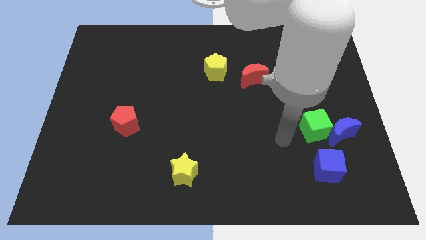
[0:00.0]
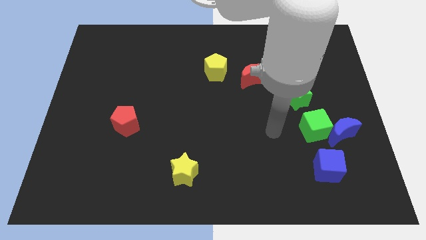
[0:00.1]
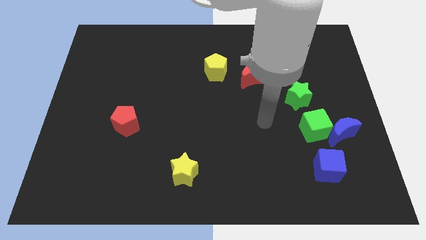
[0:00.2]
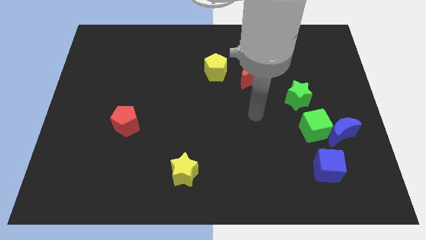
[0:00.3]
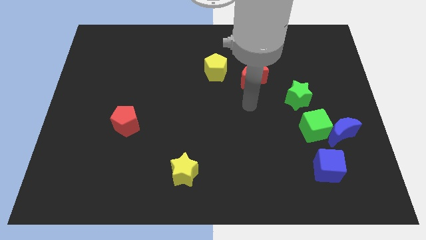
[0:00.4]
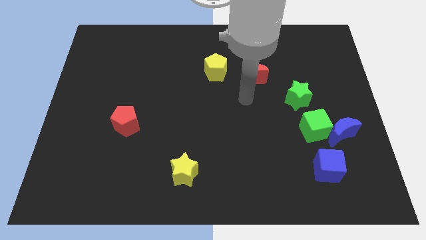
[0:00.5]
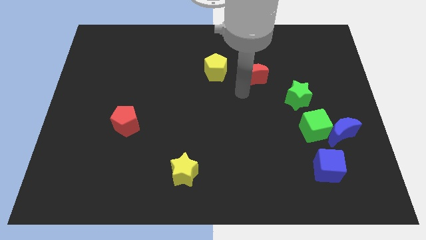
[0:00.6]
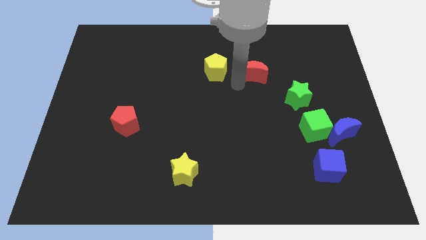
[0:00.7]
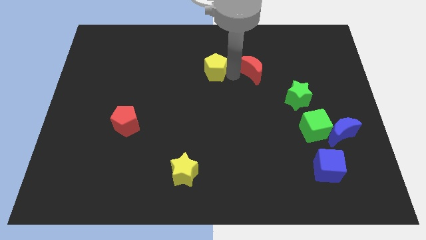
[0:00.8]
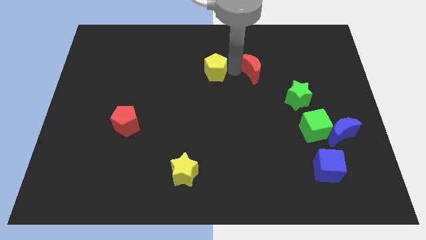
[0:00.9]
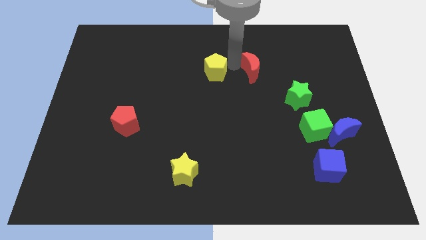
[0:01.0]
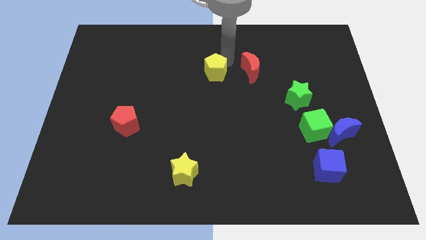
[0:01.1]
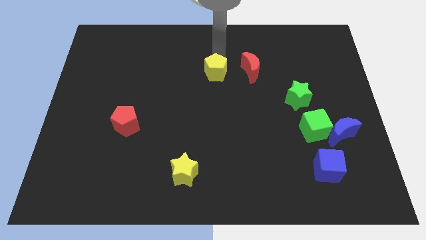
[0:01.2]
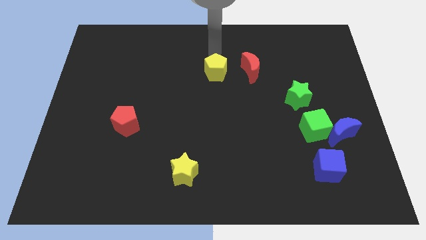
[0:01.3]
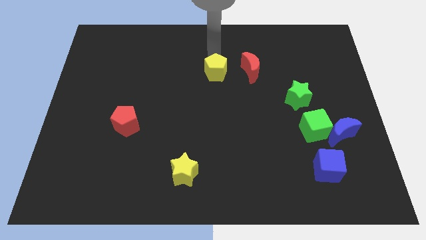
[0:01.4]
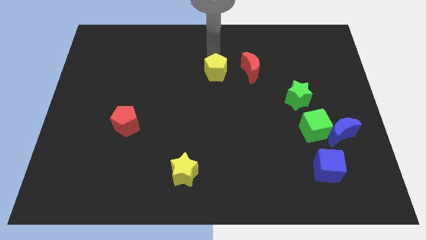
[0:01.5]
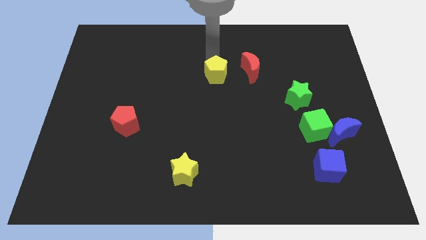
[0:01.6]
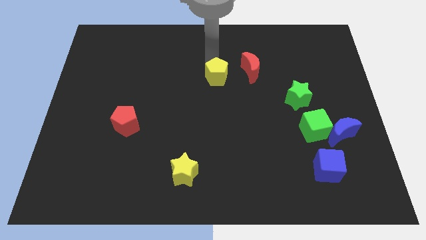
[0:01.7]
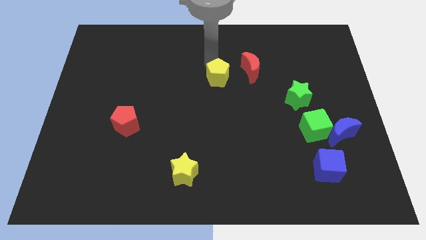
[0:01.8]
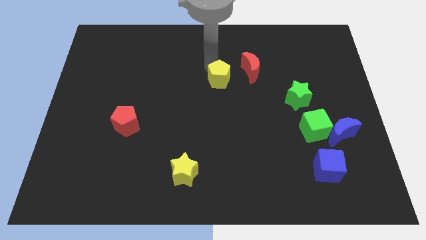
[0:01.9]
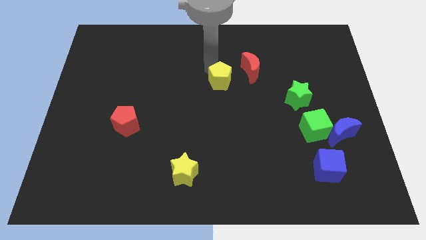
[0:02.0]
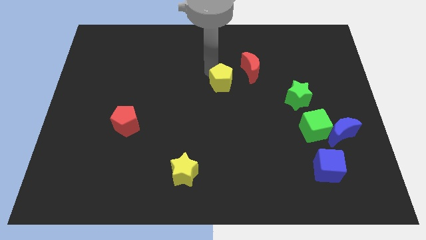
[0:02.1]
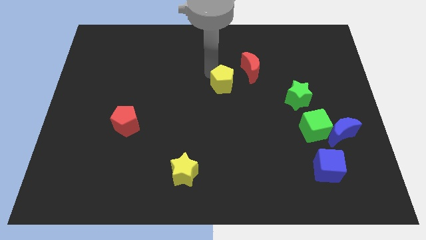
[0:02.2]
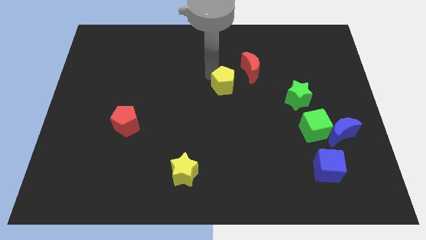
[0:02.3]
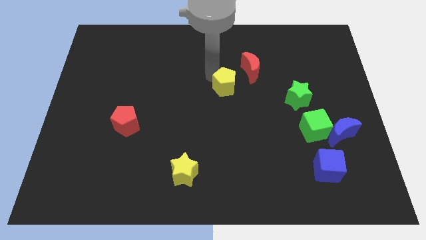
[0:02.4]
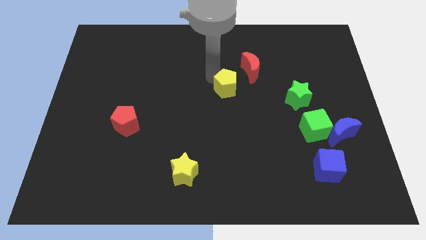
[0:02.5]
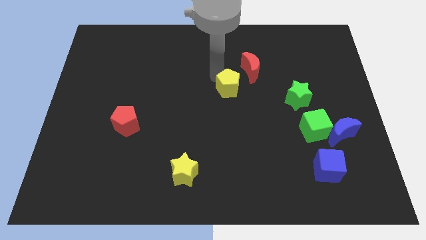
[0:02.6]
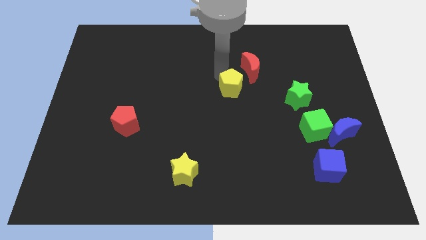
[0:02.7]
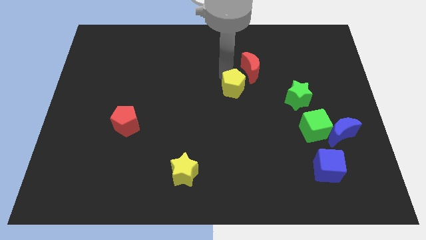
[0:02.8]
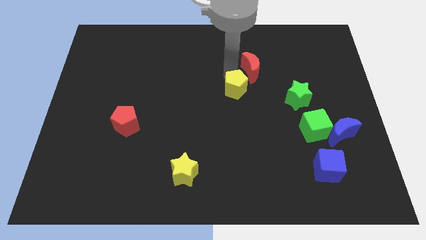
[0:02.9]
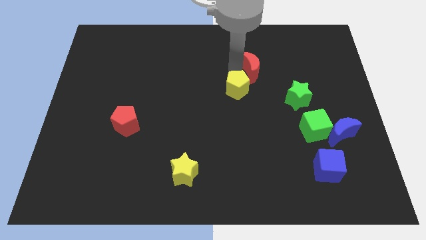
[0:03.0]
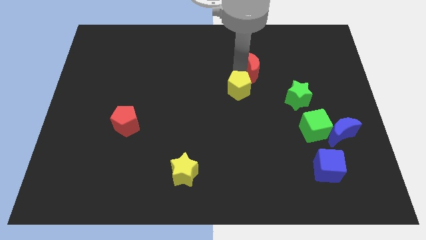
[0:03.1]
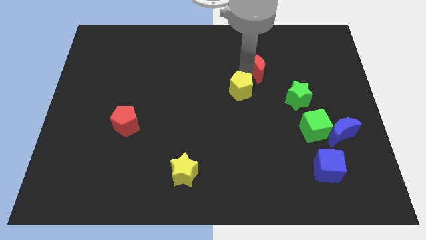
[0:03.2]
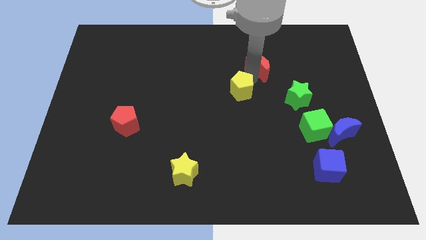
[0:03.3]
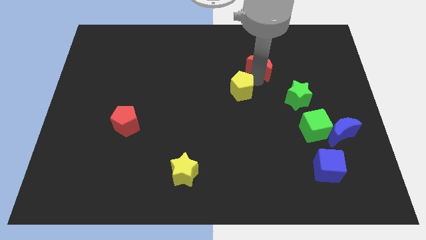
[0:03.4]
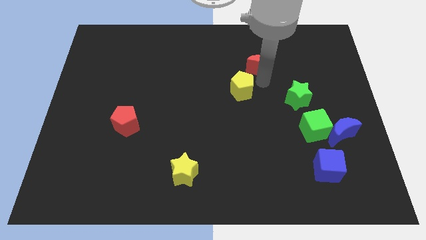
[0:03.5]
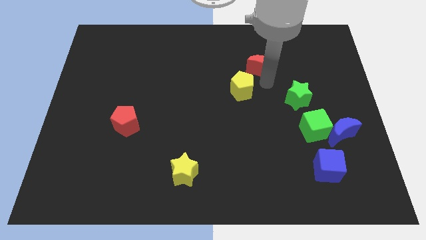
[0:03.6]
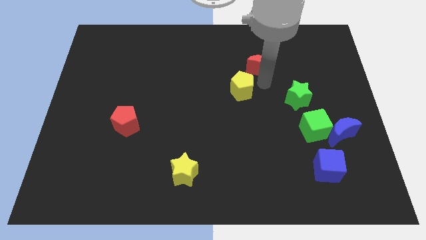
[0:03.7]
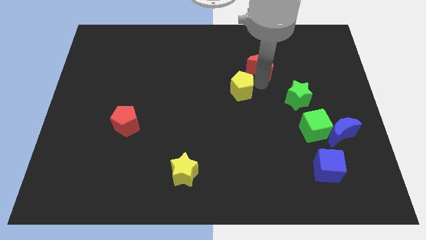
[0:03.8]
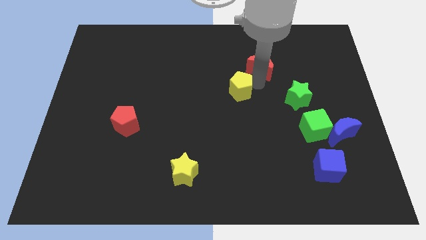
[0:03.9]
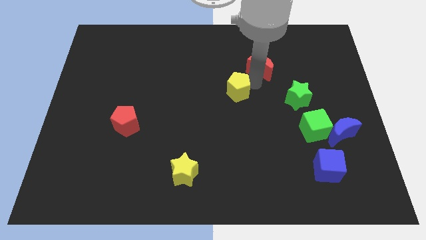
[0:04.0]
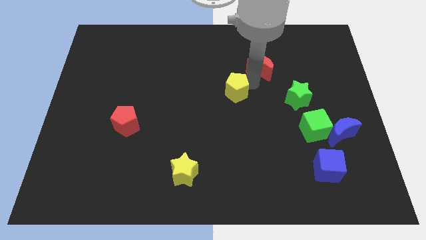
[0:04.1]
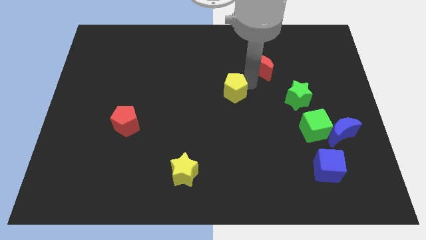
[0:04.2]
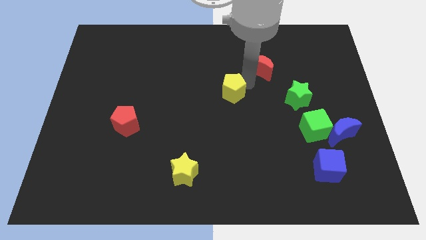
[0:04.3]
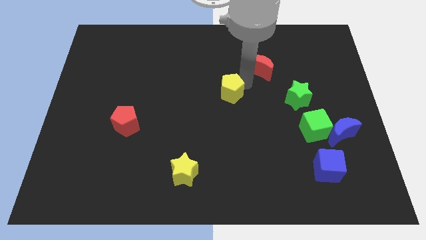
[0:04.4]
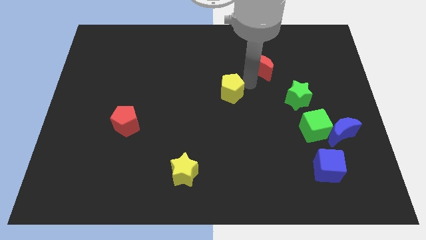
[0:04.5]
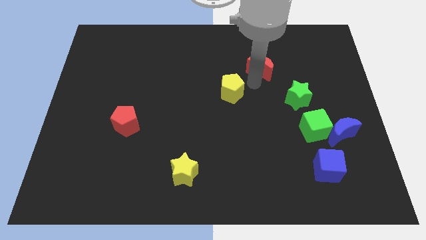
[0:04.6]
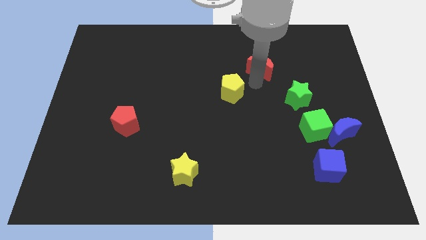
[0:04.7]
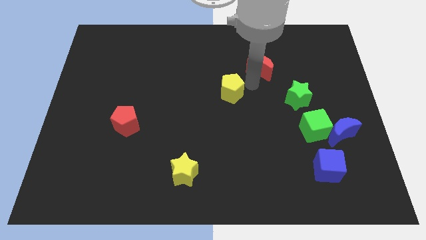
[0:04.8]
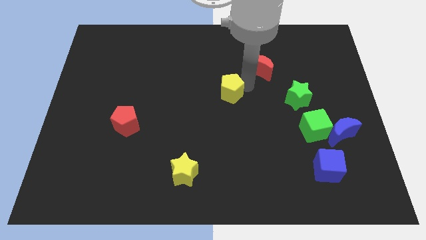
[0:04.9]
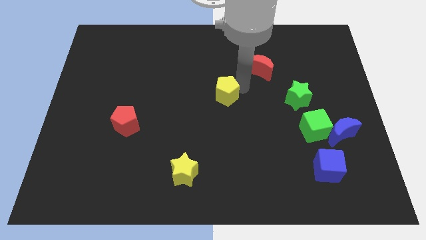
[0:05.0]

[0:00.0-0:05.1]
slightly move the yellow pentagon downwards

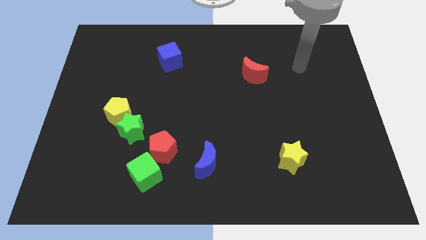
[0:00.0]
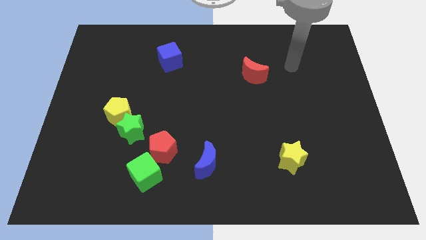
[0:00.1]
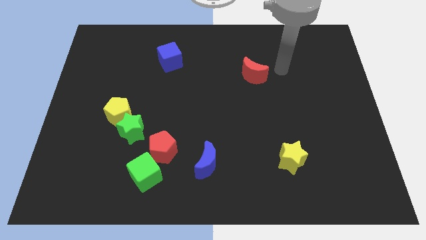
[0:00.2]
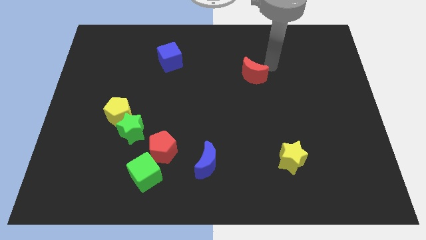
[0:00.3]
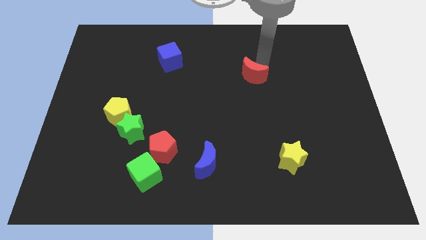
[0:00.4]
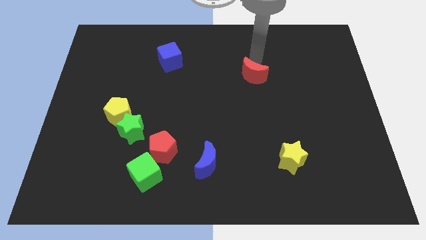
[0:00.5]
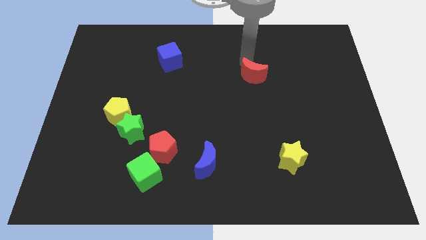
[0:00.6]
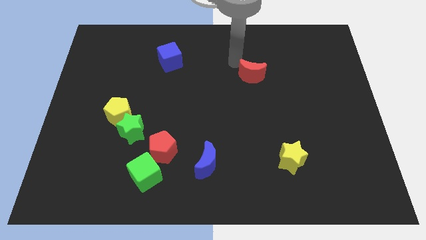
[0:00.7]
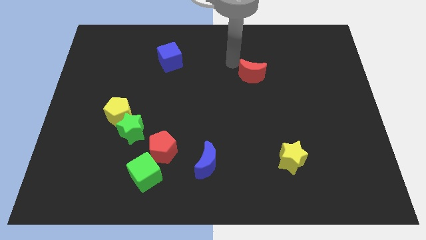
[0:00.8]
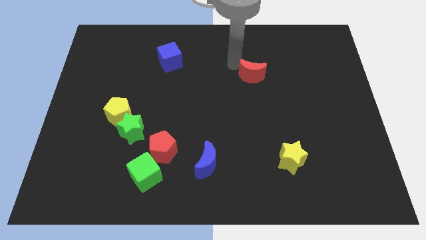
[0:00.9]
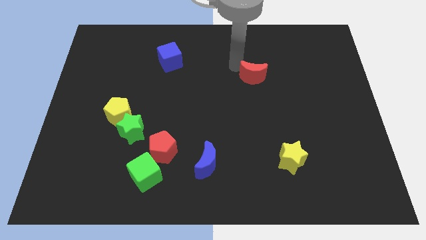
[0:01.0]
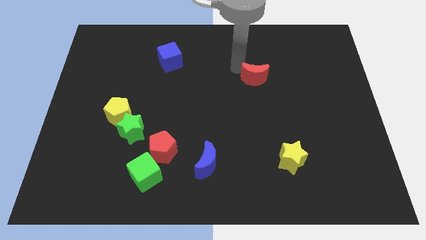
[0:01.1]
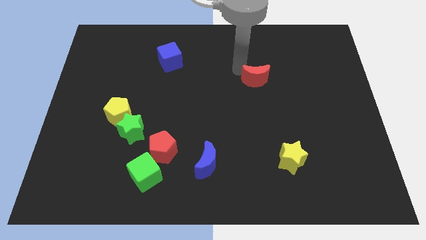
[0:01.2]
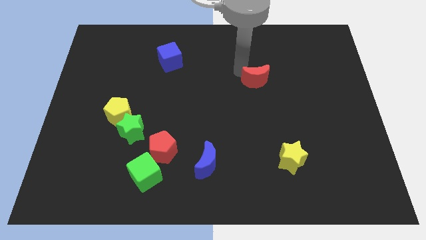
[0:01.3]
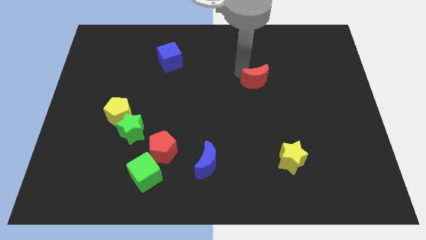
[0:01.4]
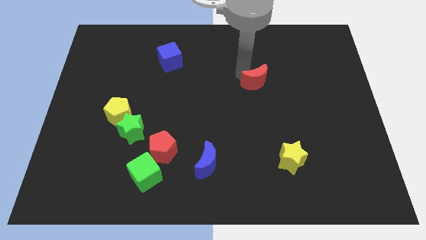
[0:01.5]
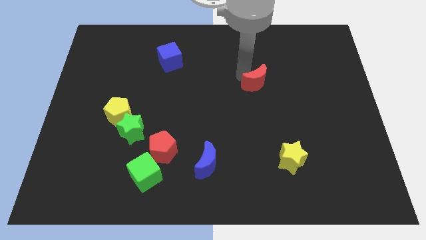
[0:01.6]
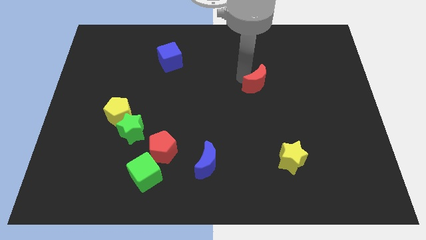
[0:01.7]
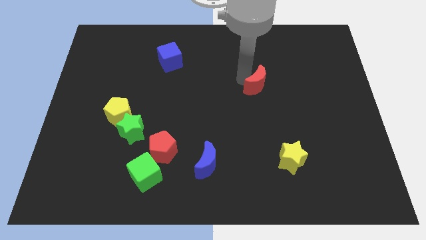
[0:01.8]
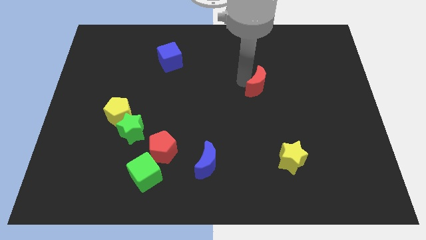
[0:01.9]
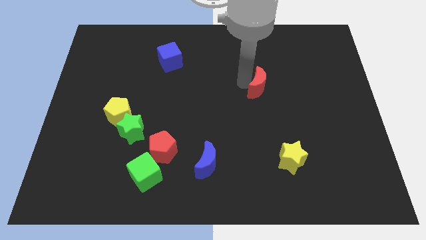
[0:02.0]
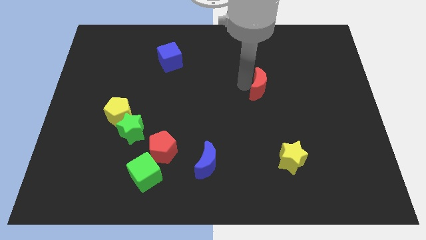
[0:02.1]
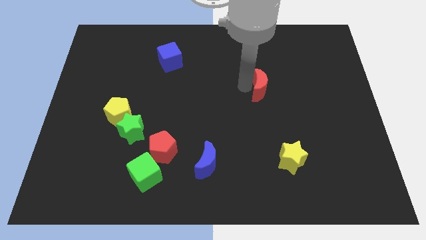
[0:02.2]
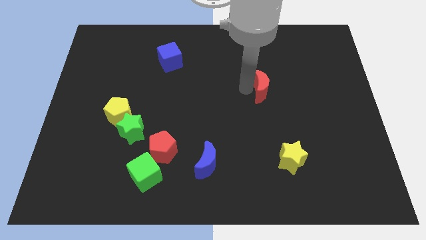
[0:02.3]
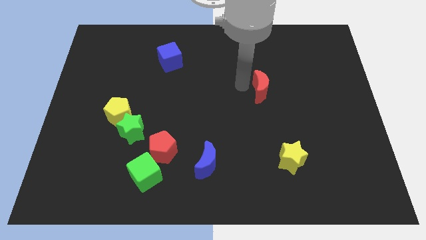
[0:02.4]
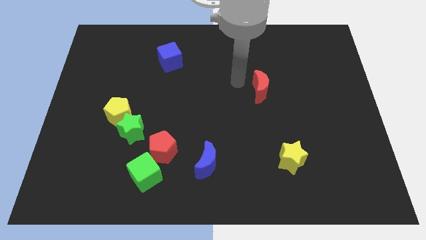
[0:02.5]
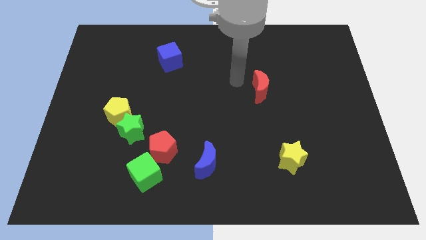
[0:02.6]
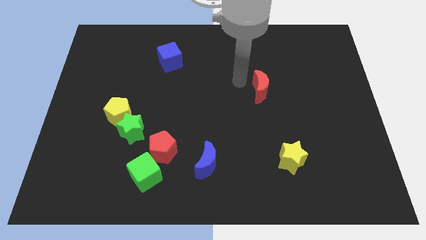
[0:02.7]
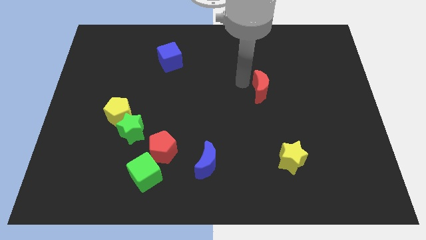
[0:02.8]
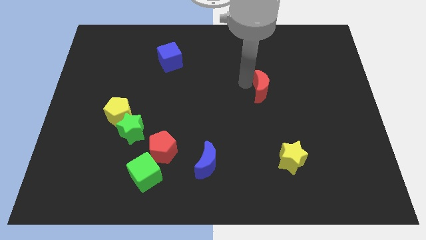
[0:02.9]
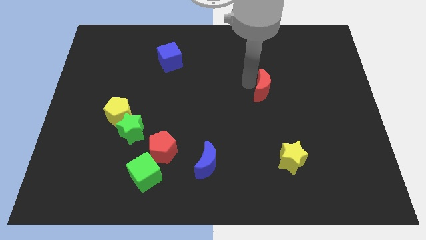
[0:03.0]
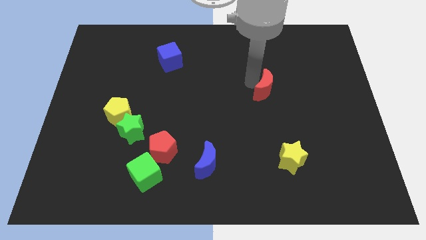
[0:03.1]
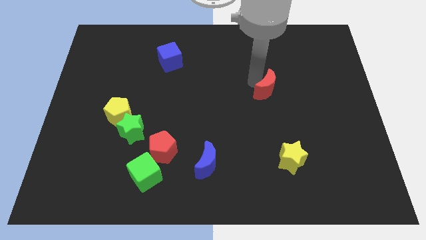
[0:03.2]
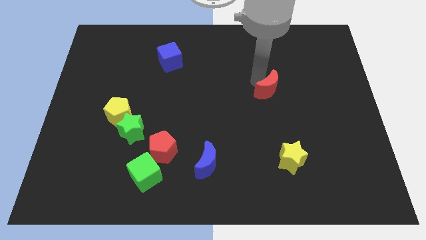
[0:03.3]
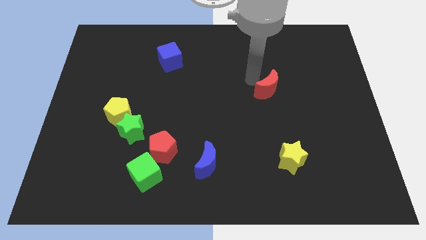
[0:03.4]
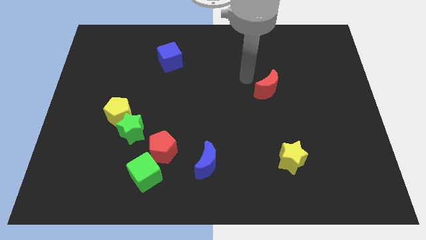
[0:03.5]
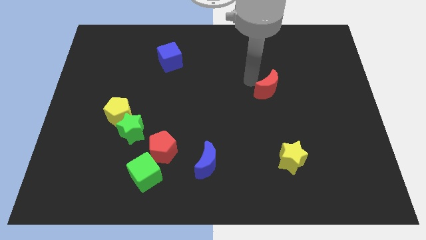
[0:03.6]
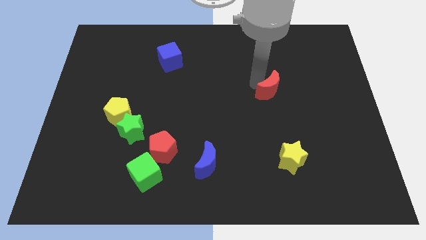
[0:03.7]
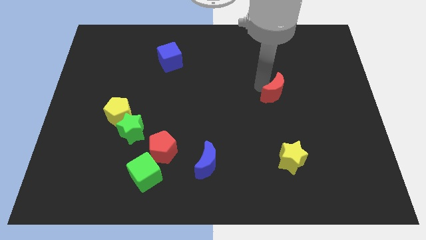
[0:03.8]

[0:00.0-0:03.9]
push the red moon slightly downwards and to the right diagonally
